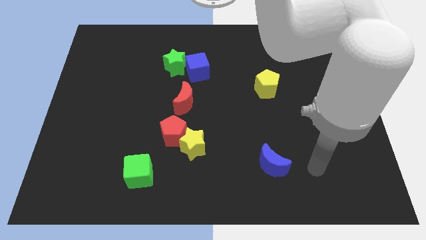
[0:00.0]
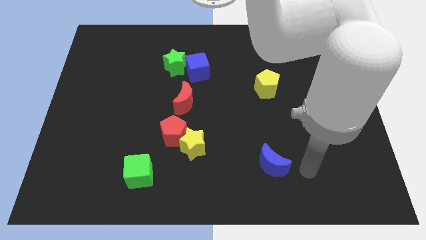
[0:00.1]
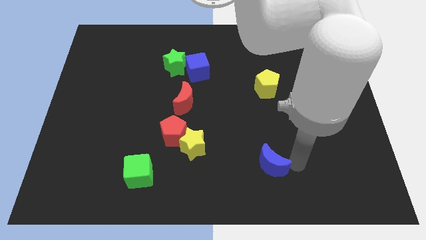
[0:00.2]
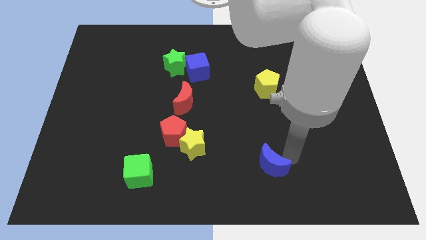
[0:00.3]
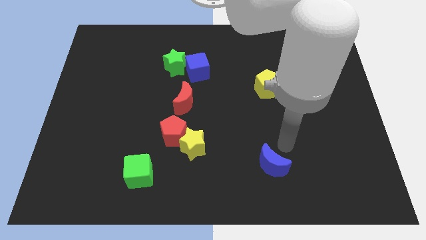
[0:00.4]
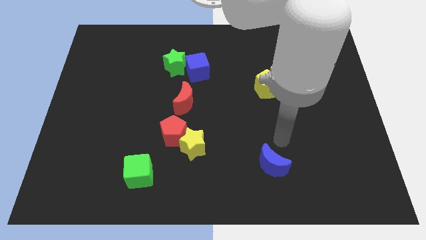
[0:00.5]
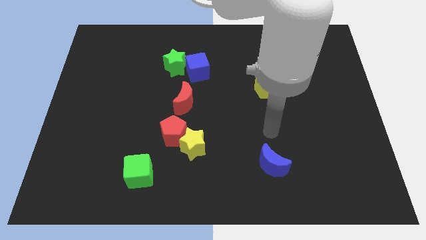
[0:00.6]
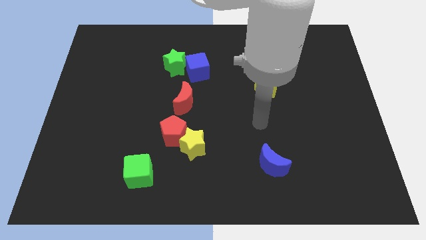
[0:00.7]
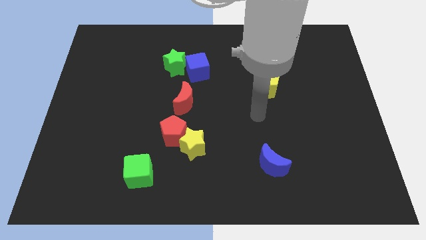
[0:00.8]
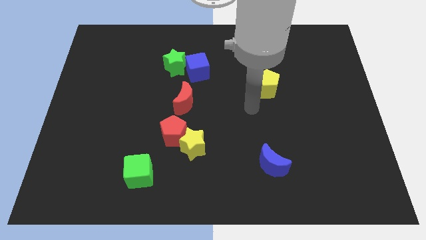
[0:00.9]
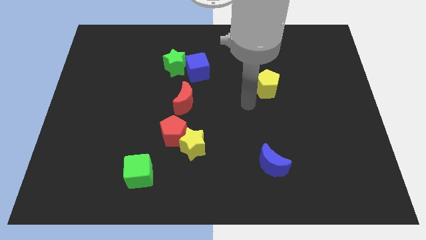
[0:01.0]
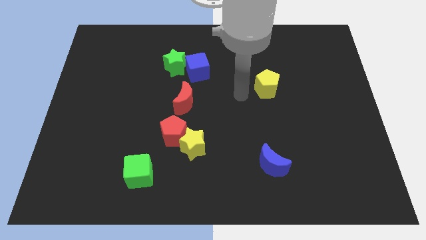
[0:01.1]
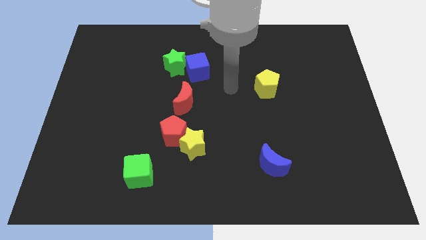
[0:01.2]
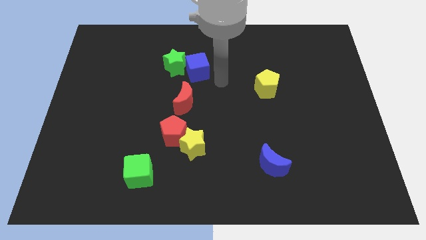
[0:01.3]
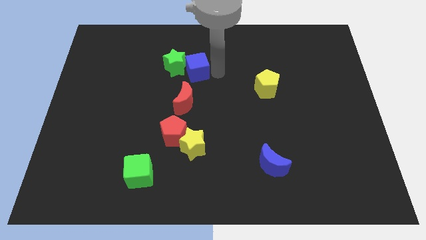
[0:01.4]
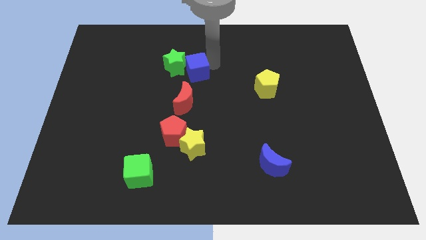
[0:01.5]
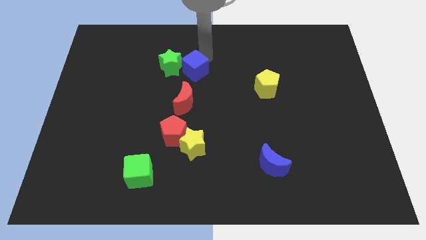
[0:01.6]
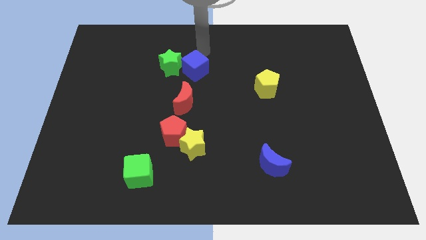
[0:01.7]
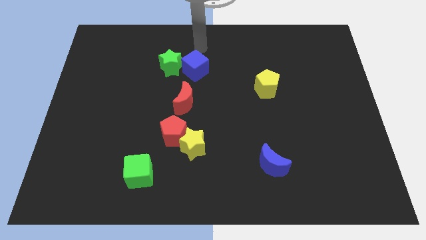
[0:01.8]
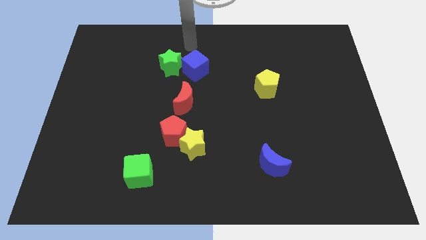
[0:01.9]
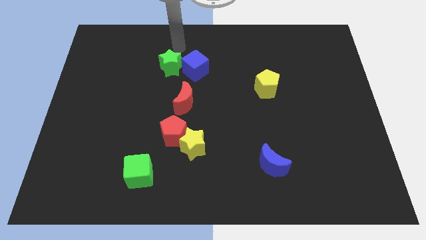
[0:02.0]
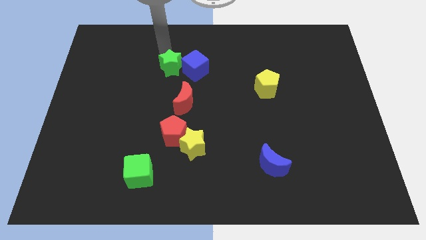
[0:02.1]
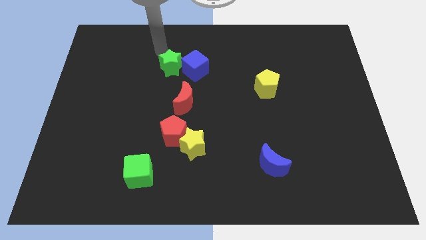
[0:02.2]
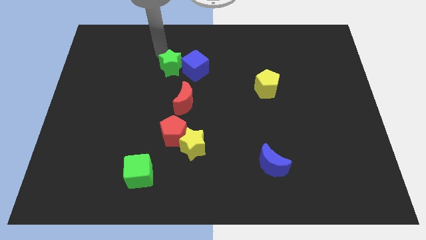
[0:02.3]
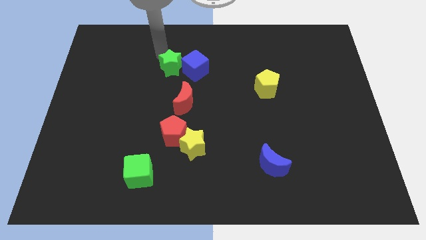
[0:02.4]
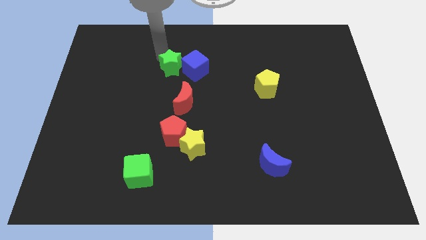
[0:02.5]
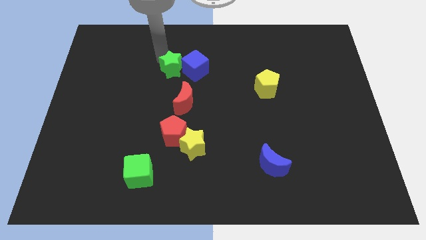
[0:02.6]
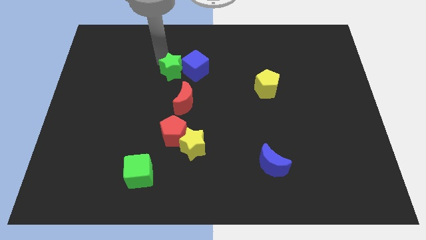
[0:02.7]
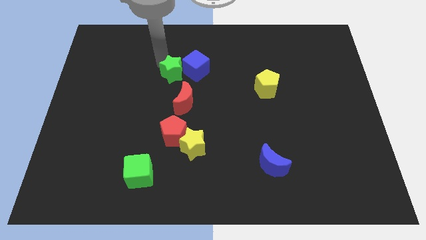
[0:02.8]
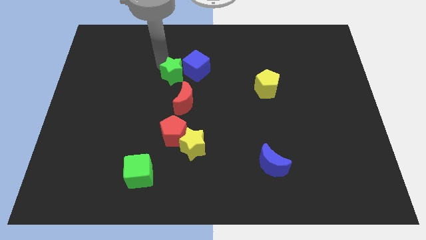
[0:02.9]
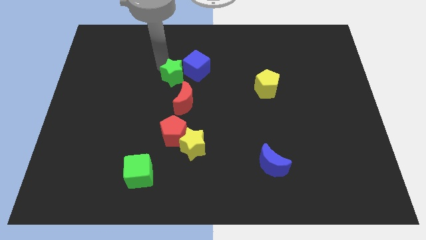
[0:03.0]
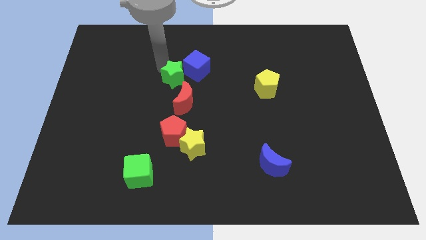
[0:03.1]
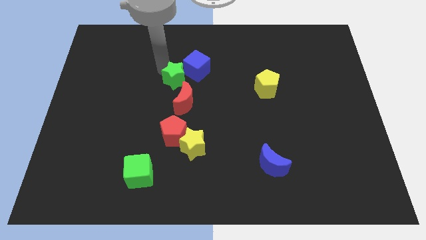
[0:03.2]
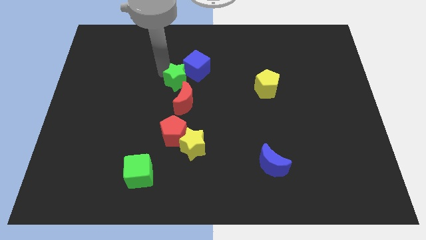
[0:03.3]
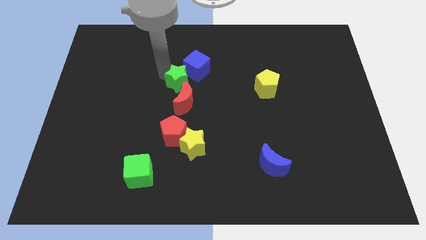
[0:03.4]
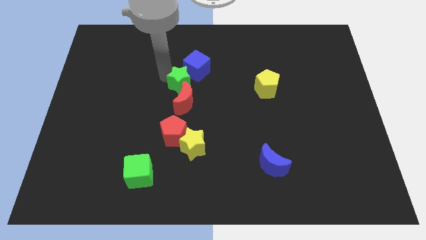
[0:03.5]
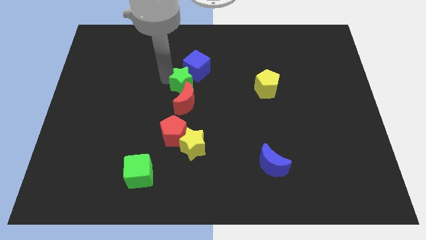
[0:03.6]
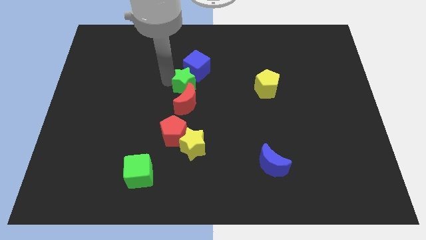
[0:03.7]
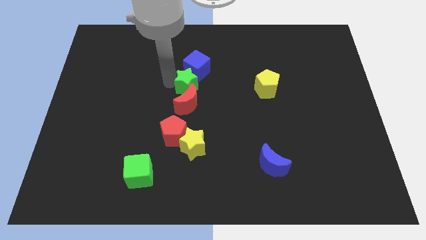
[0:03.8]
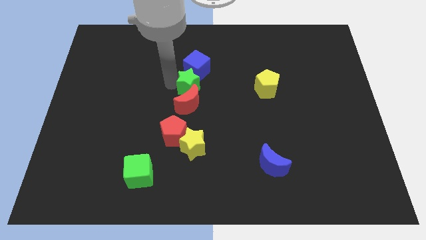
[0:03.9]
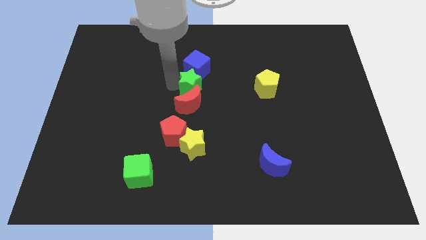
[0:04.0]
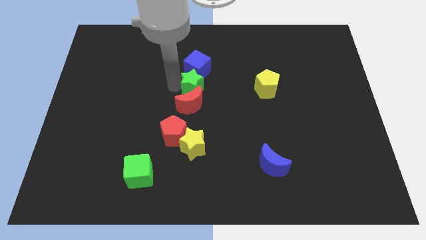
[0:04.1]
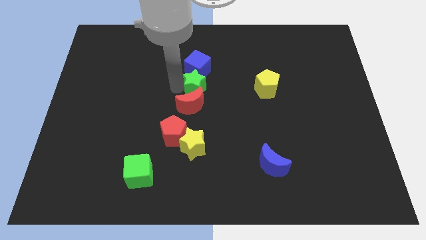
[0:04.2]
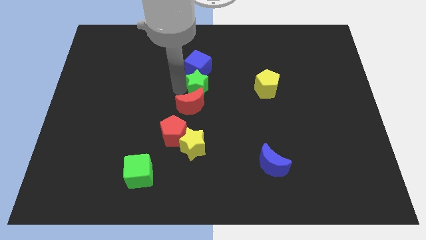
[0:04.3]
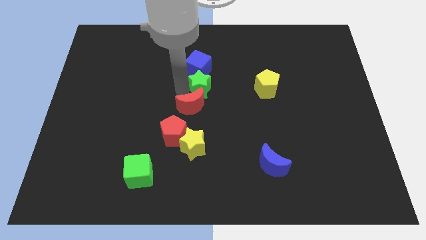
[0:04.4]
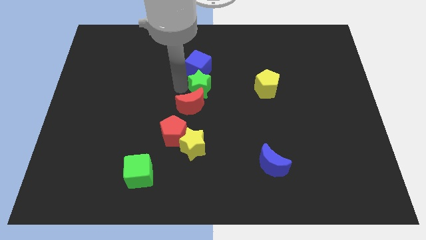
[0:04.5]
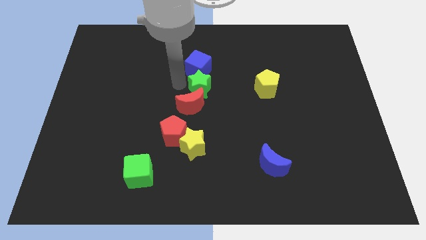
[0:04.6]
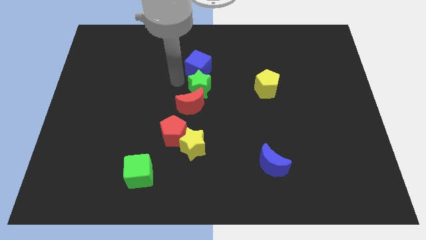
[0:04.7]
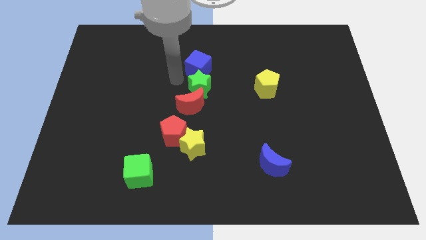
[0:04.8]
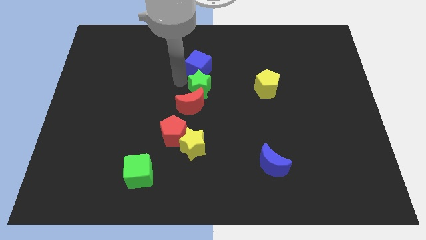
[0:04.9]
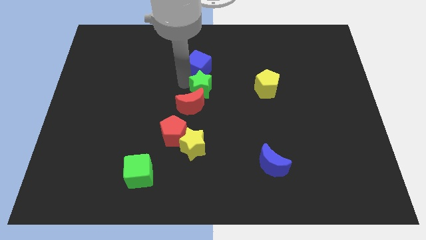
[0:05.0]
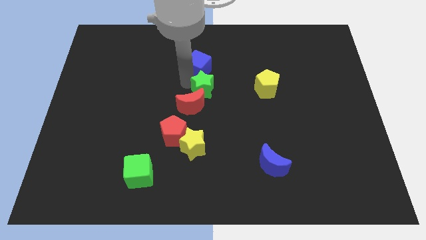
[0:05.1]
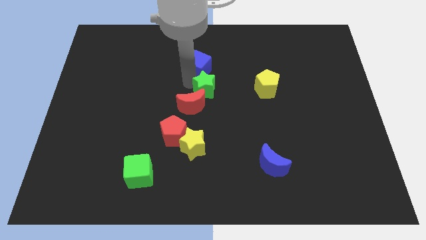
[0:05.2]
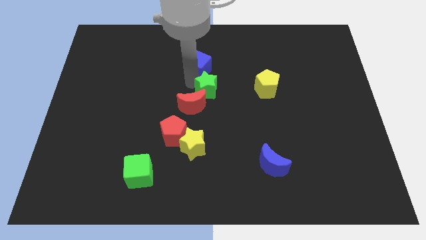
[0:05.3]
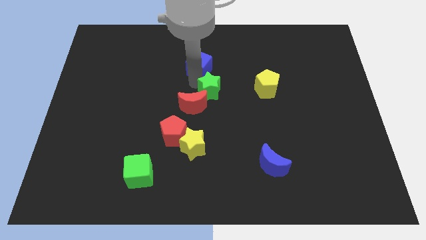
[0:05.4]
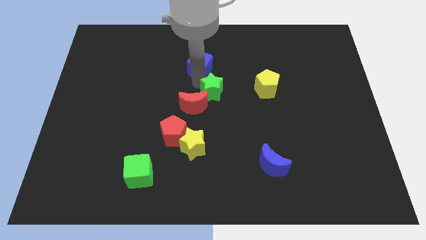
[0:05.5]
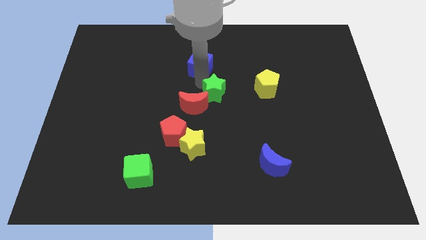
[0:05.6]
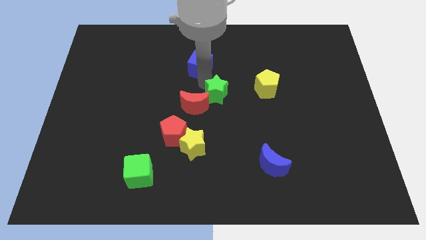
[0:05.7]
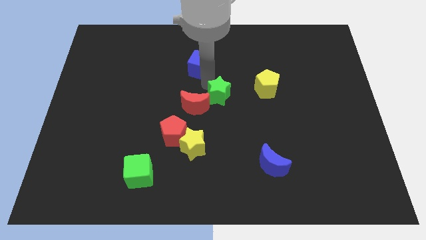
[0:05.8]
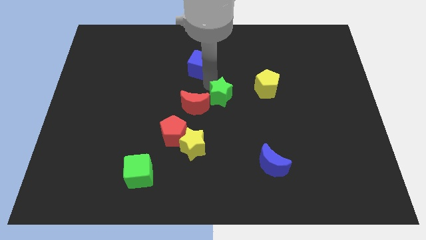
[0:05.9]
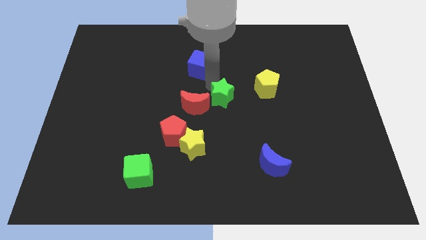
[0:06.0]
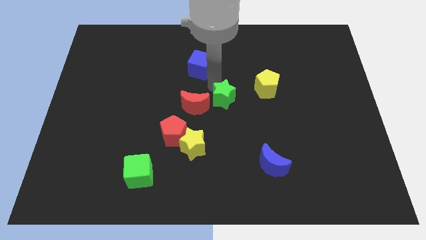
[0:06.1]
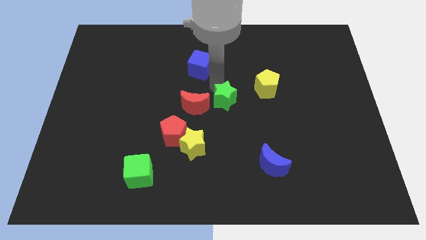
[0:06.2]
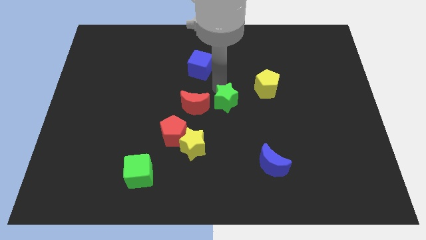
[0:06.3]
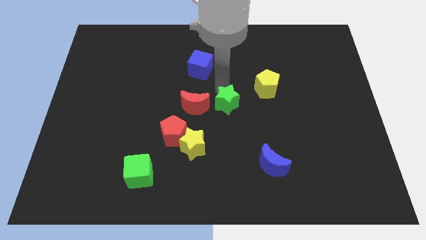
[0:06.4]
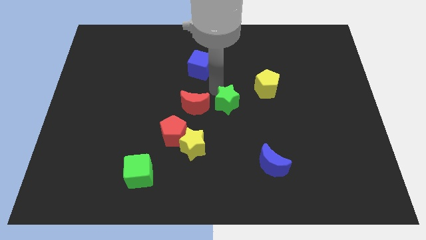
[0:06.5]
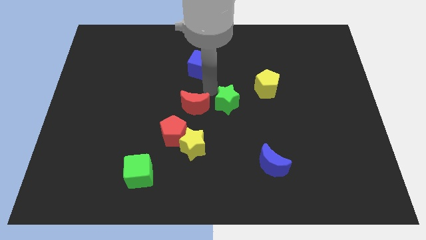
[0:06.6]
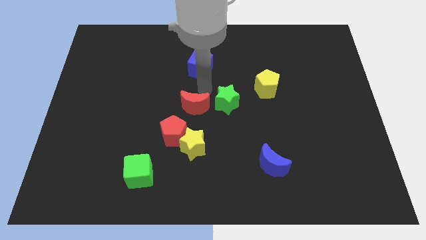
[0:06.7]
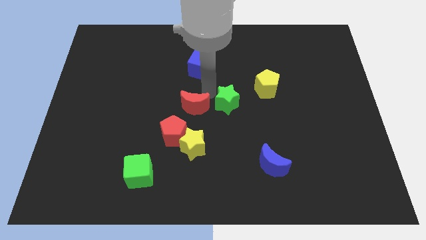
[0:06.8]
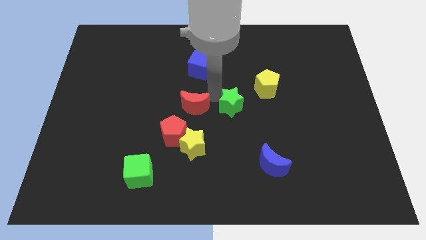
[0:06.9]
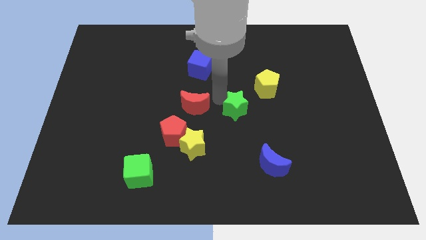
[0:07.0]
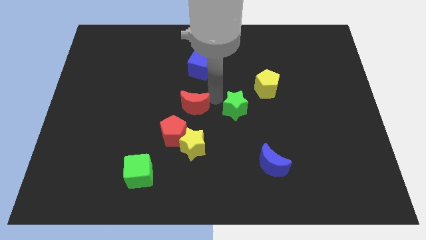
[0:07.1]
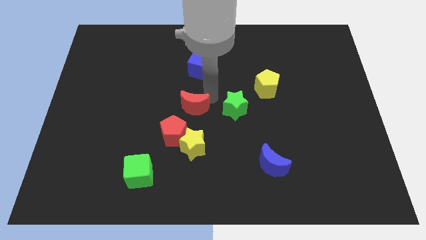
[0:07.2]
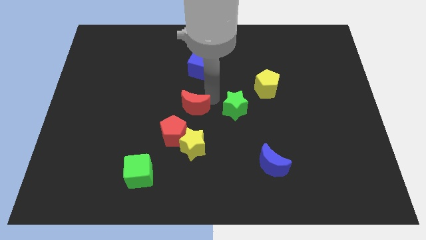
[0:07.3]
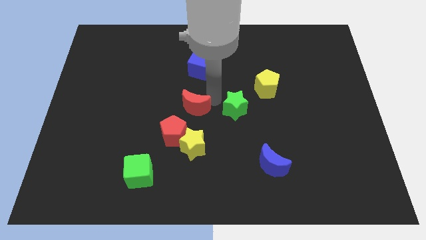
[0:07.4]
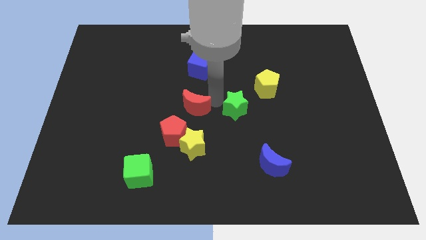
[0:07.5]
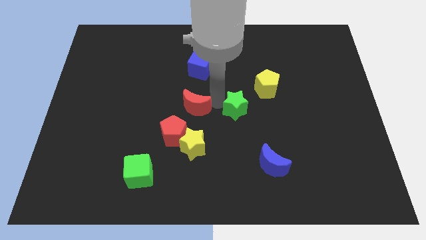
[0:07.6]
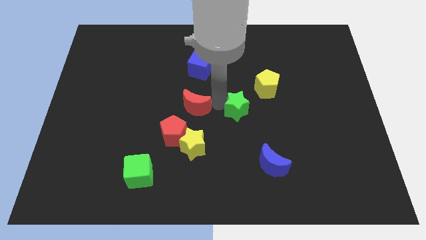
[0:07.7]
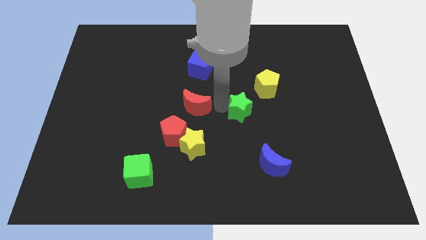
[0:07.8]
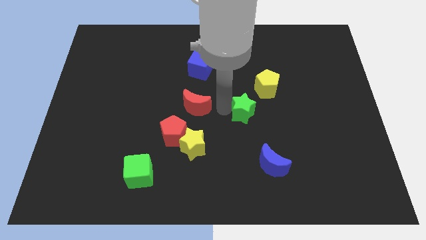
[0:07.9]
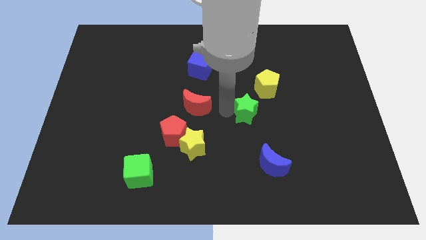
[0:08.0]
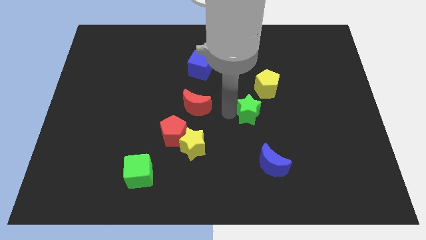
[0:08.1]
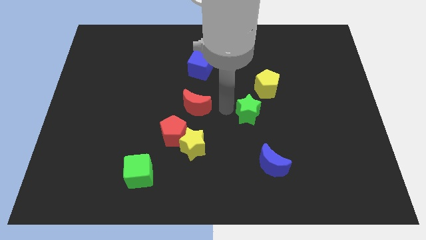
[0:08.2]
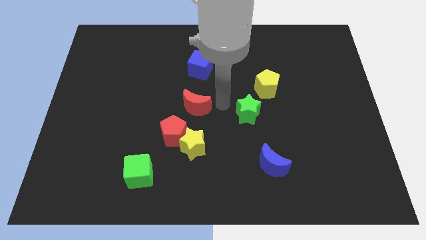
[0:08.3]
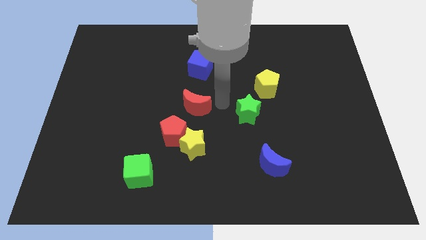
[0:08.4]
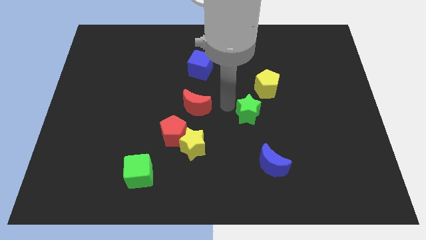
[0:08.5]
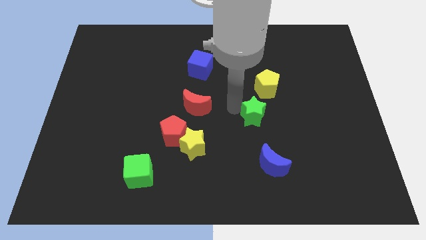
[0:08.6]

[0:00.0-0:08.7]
push the green star to the bottom side of the yellow pentagon

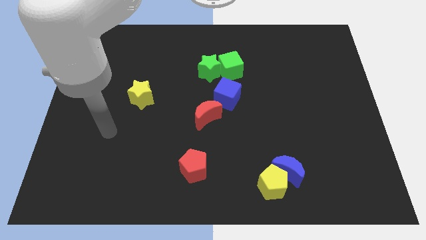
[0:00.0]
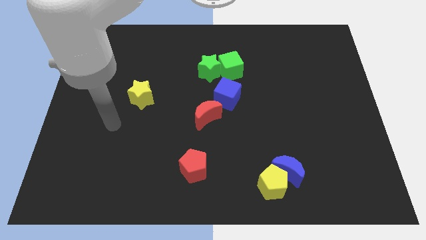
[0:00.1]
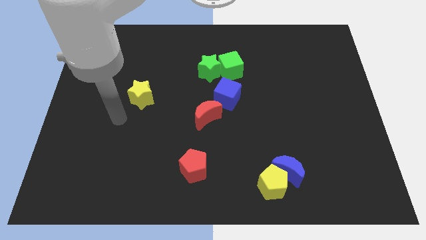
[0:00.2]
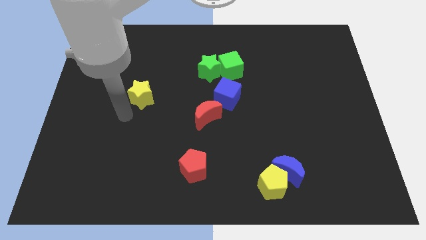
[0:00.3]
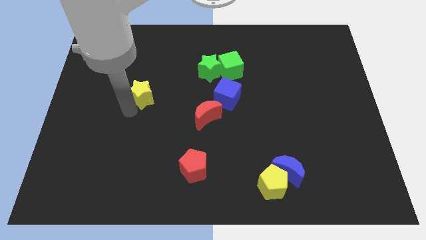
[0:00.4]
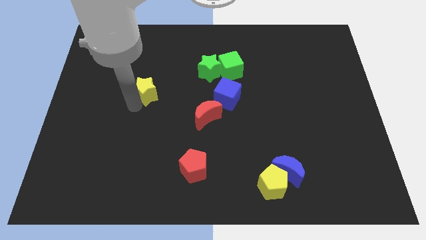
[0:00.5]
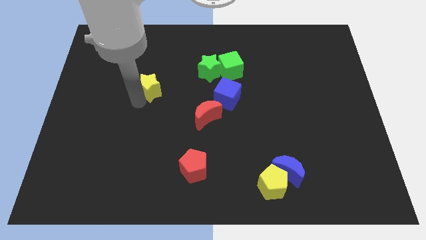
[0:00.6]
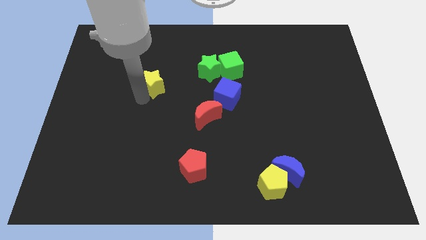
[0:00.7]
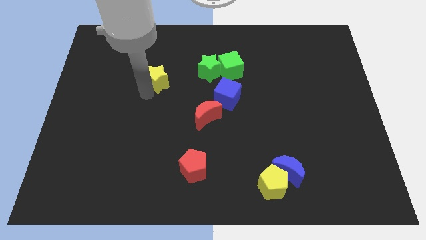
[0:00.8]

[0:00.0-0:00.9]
put the yellow star to the left side of the green star
